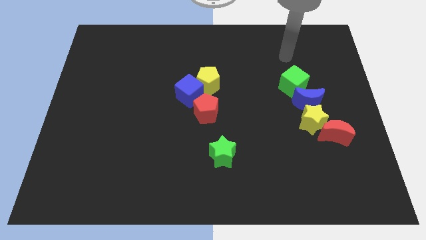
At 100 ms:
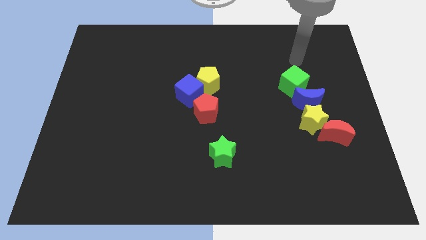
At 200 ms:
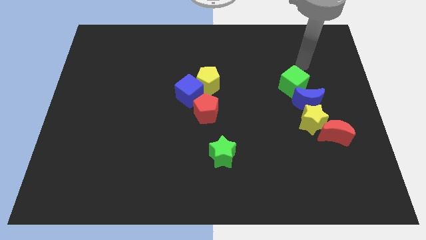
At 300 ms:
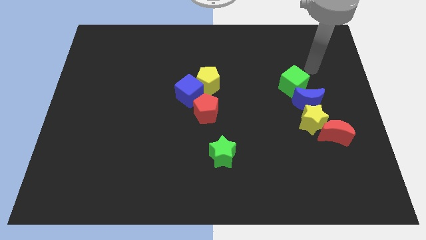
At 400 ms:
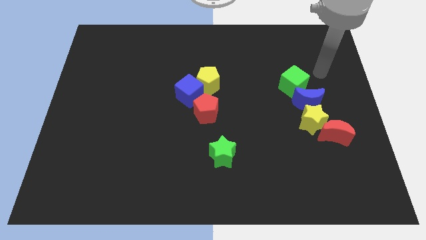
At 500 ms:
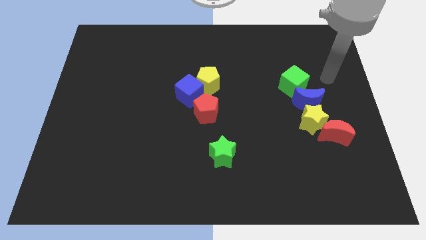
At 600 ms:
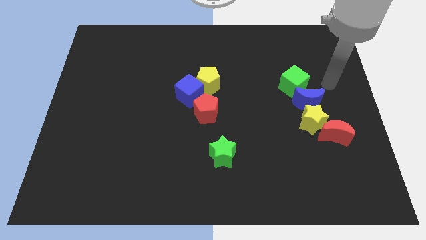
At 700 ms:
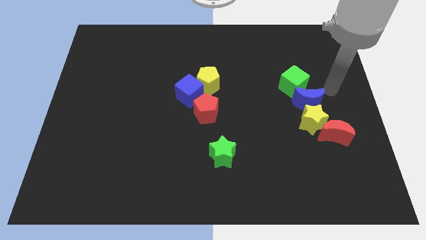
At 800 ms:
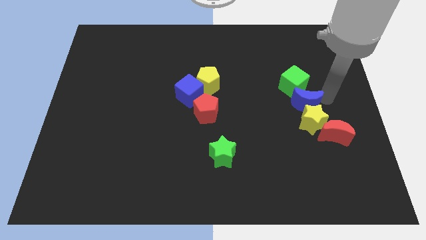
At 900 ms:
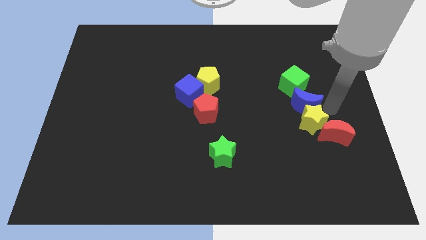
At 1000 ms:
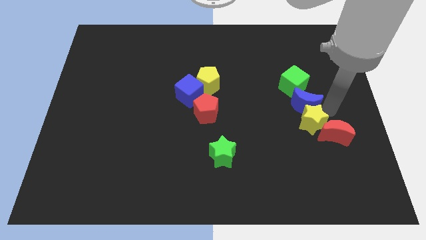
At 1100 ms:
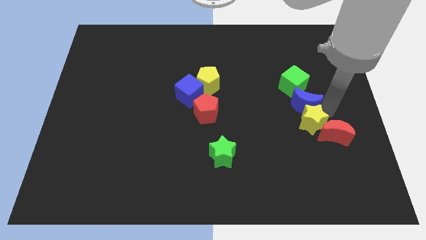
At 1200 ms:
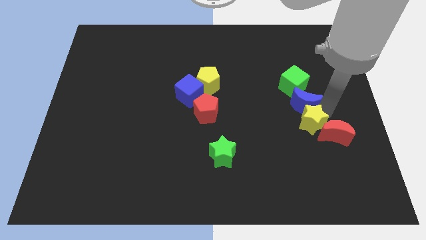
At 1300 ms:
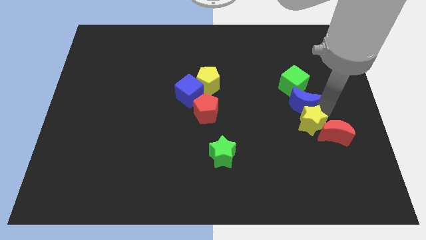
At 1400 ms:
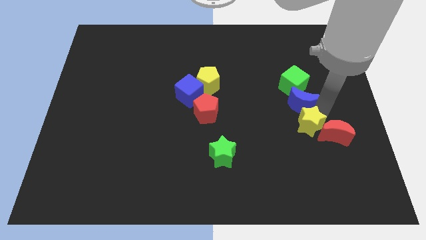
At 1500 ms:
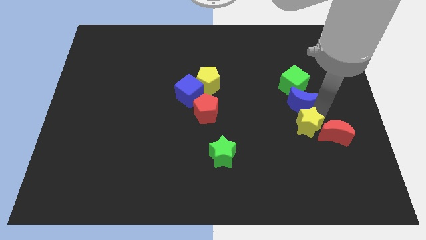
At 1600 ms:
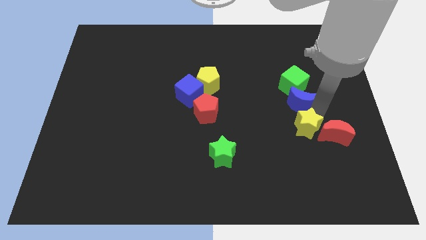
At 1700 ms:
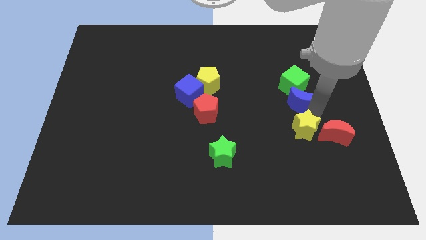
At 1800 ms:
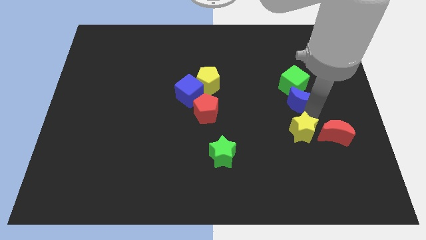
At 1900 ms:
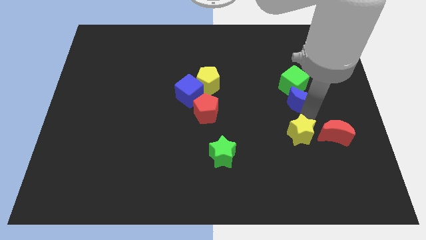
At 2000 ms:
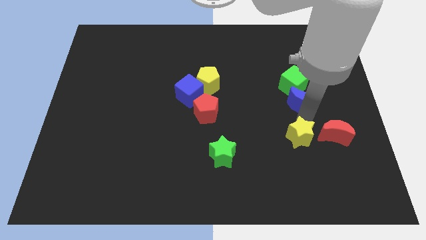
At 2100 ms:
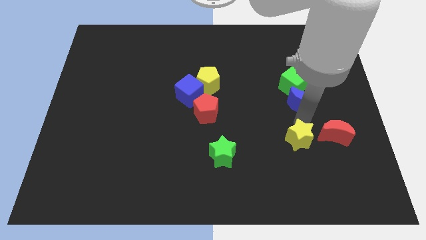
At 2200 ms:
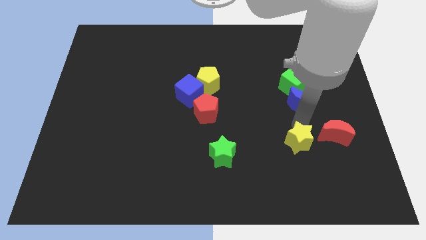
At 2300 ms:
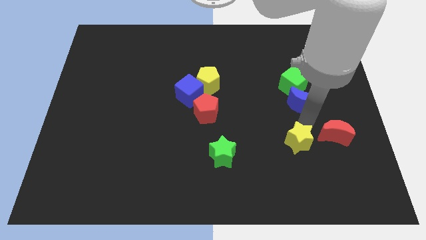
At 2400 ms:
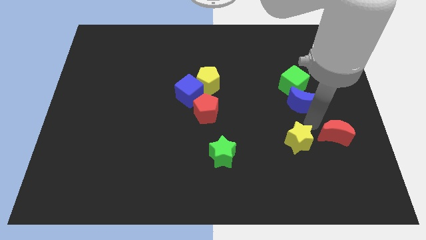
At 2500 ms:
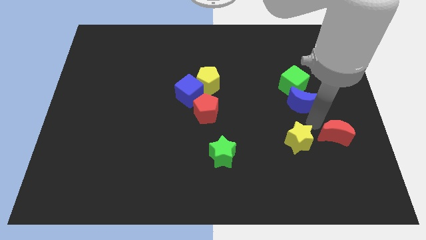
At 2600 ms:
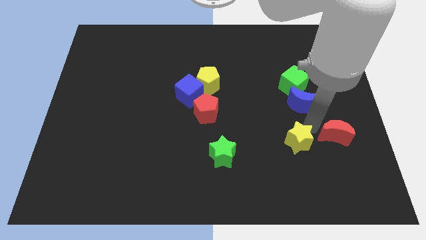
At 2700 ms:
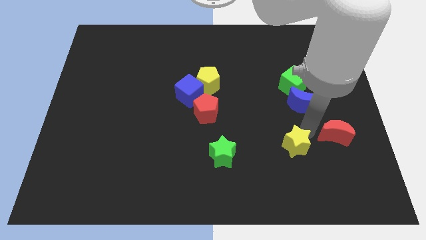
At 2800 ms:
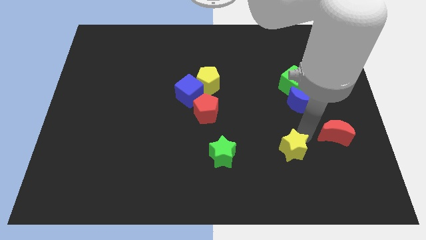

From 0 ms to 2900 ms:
separate the yellow star from the red moon and blue moon

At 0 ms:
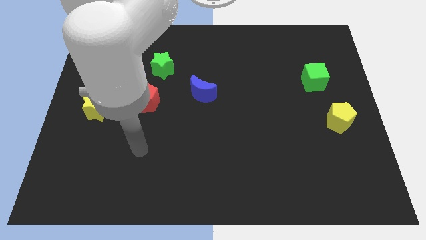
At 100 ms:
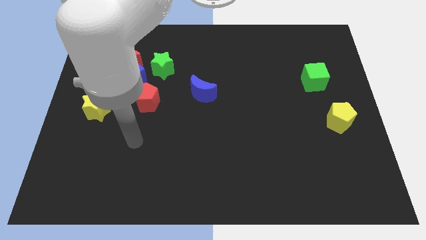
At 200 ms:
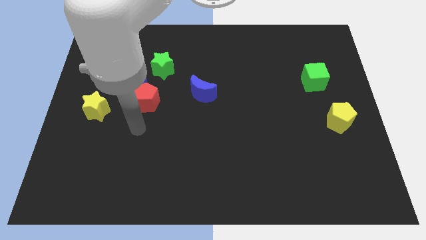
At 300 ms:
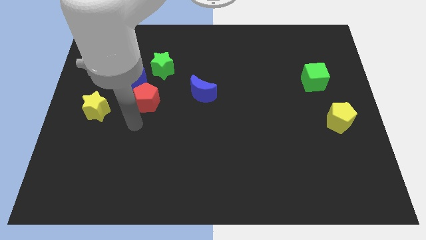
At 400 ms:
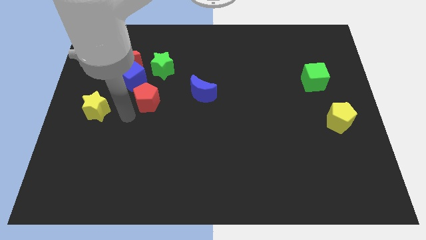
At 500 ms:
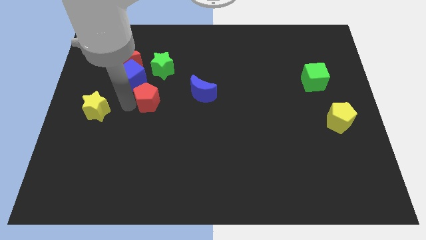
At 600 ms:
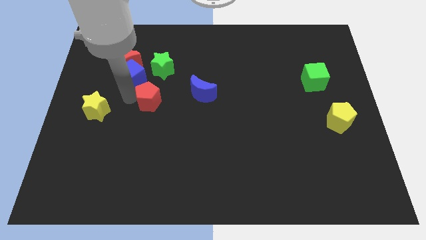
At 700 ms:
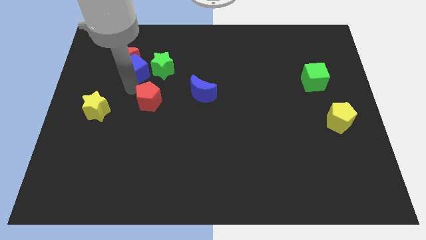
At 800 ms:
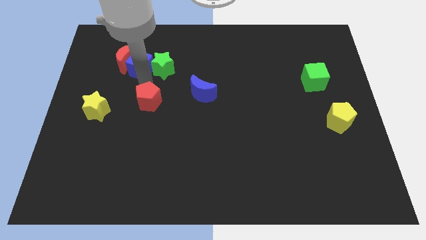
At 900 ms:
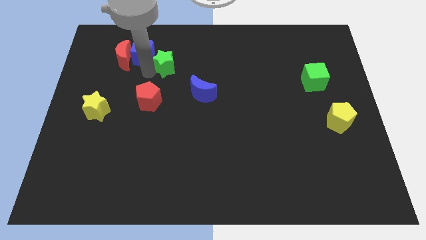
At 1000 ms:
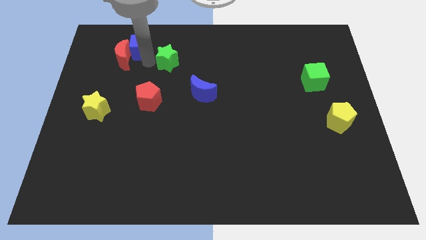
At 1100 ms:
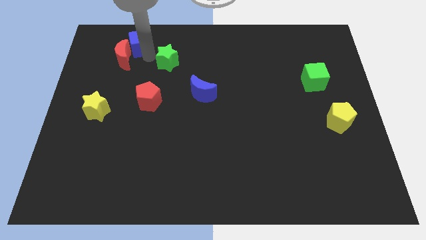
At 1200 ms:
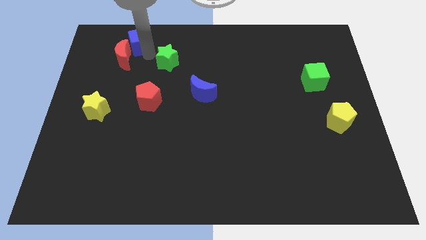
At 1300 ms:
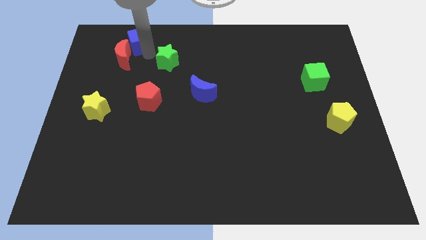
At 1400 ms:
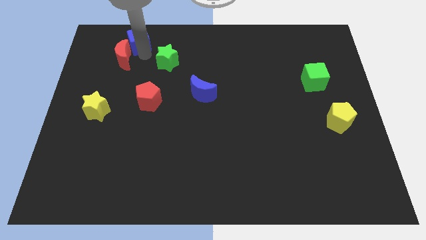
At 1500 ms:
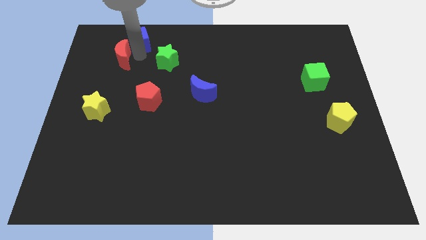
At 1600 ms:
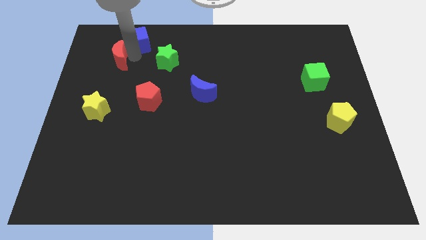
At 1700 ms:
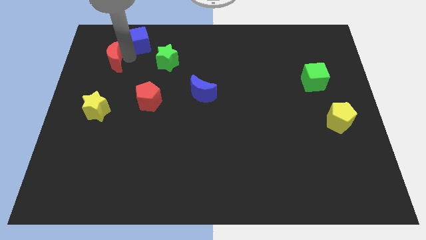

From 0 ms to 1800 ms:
separate the red moon from the blue cube and green star

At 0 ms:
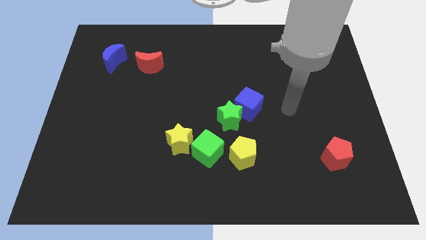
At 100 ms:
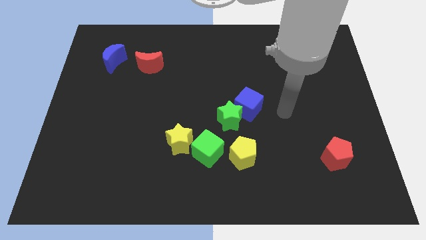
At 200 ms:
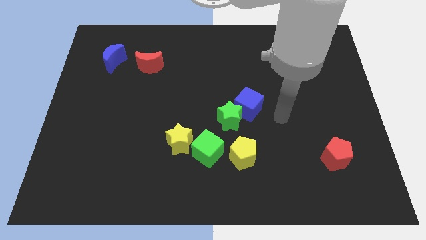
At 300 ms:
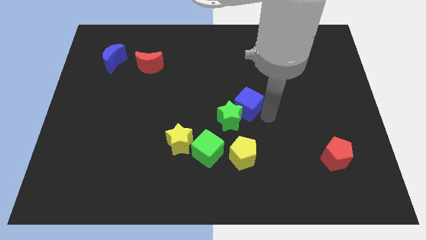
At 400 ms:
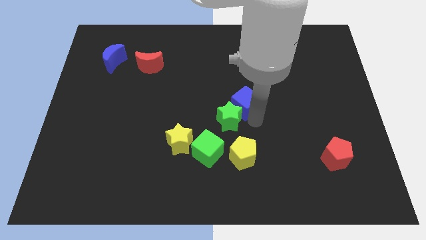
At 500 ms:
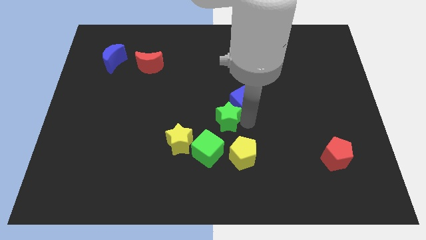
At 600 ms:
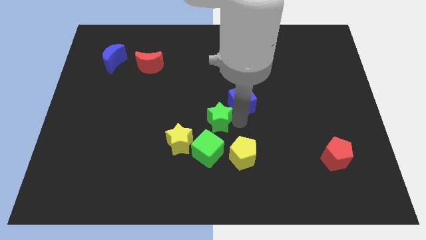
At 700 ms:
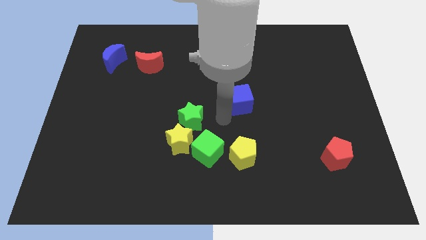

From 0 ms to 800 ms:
move the blue cube away from the green star

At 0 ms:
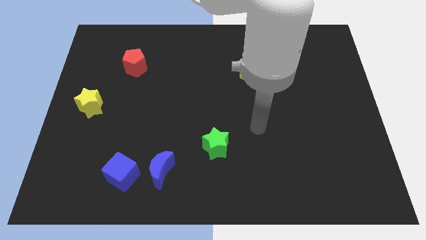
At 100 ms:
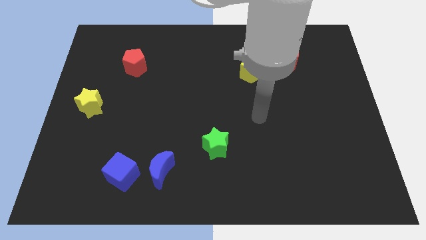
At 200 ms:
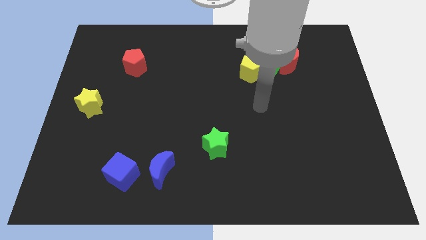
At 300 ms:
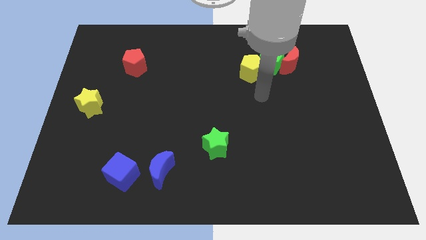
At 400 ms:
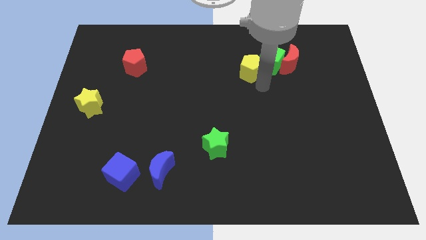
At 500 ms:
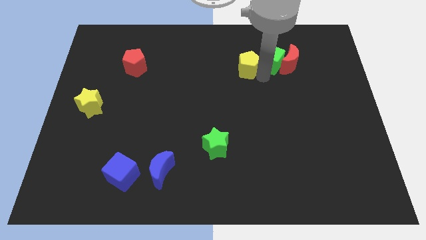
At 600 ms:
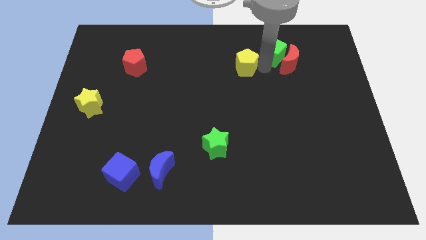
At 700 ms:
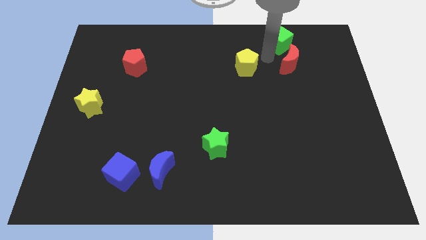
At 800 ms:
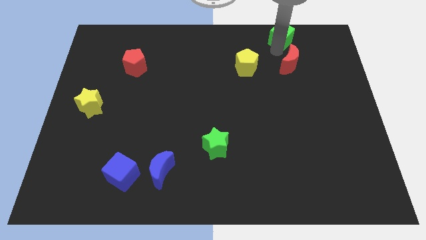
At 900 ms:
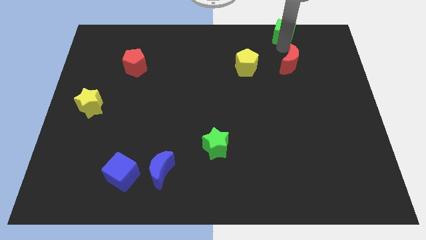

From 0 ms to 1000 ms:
move the red moon away from the green cube

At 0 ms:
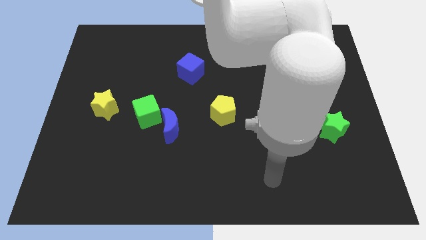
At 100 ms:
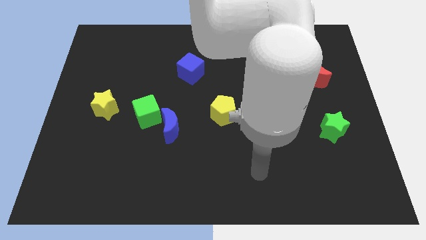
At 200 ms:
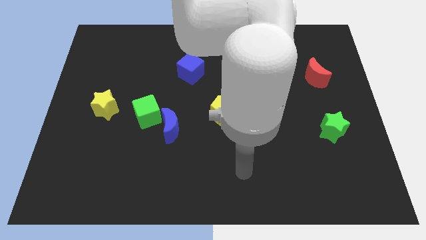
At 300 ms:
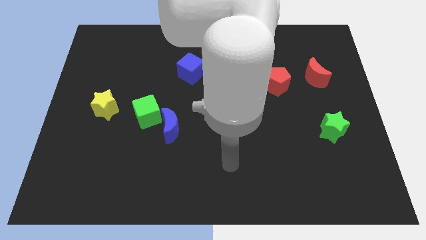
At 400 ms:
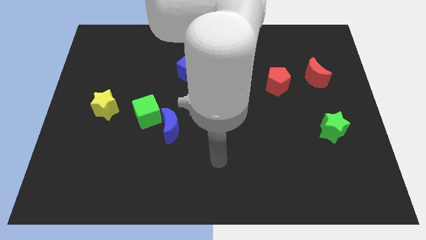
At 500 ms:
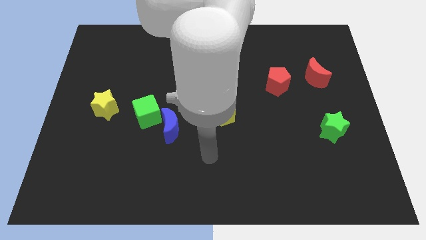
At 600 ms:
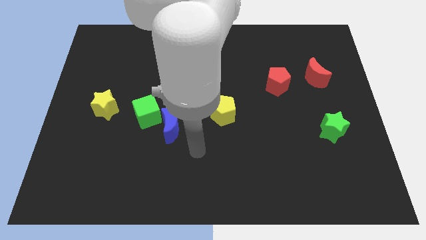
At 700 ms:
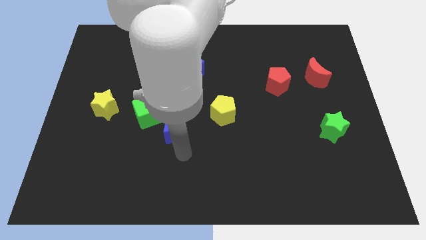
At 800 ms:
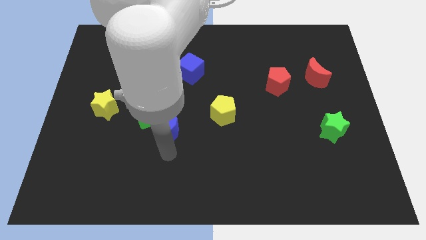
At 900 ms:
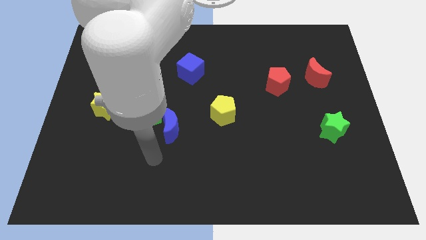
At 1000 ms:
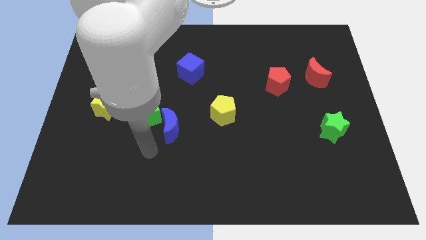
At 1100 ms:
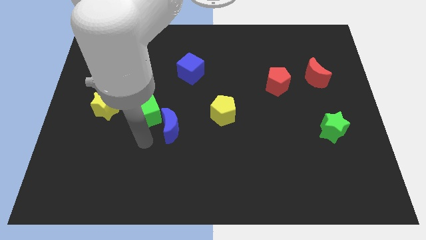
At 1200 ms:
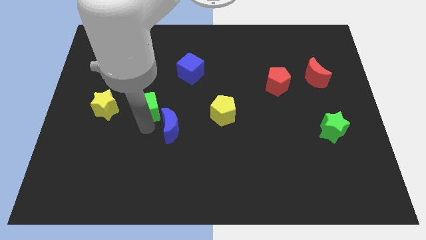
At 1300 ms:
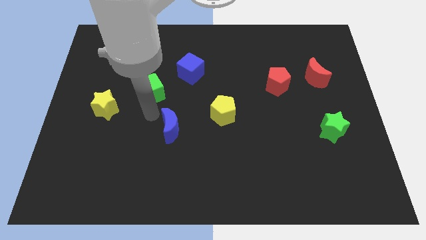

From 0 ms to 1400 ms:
move the blue moon away from the green cube

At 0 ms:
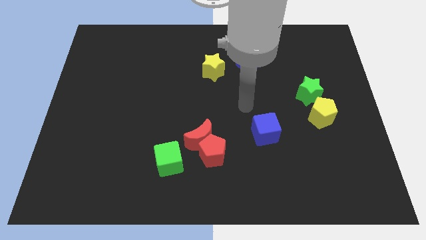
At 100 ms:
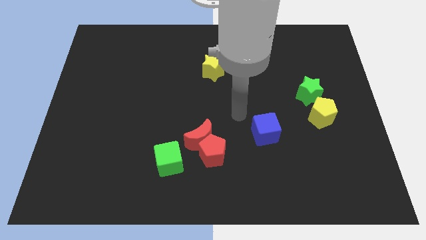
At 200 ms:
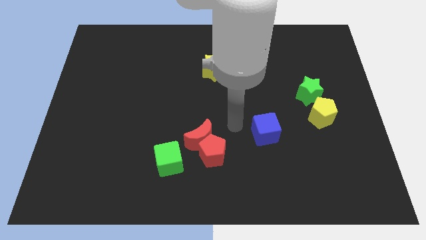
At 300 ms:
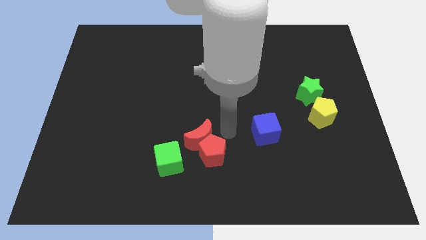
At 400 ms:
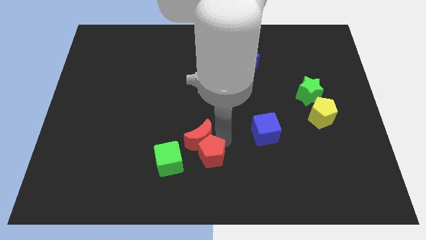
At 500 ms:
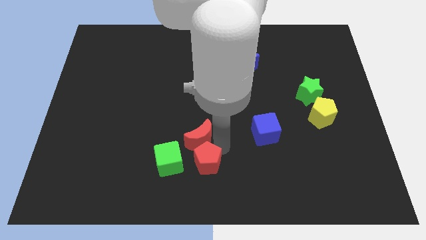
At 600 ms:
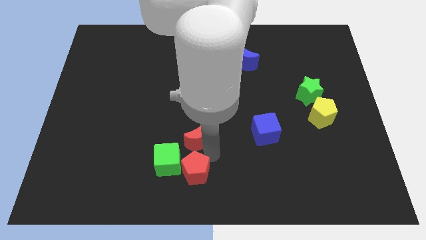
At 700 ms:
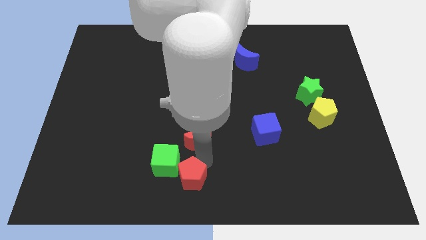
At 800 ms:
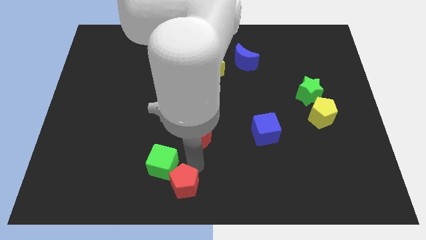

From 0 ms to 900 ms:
pull the red moon apart from the red pentagon and green cube

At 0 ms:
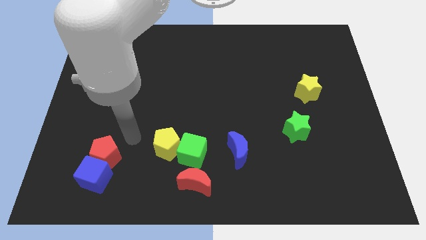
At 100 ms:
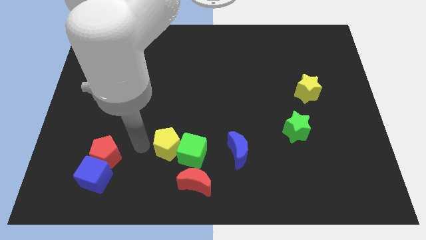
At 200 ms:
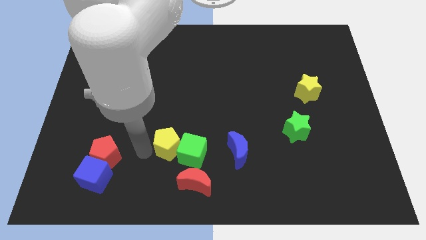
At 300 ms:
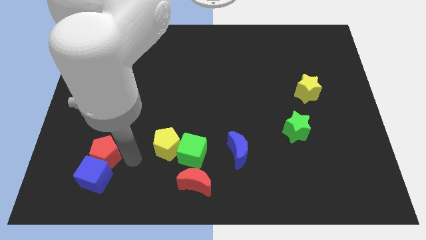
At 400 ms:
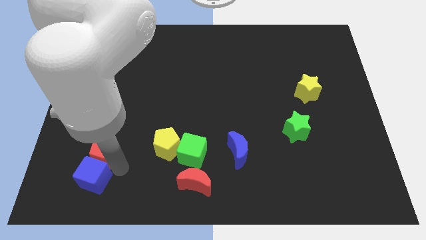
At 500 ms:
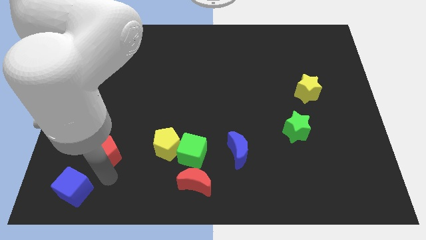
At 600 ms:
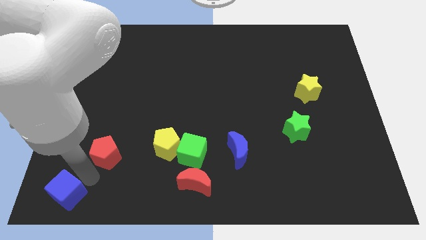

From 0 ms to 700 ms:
pull the red pentagon apart from the blue cube
